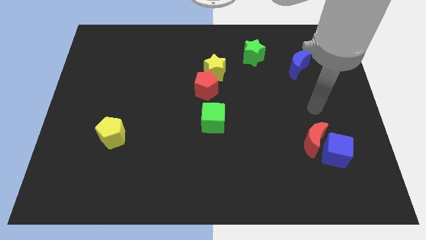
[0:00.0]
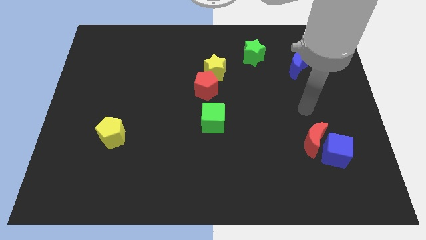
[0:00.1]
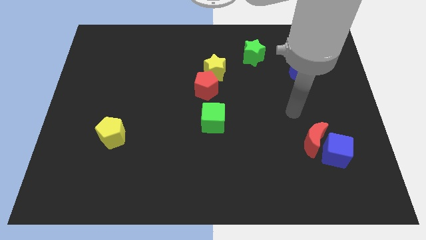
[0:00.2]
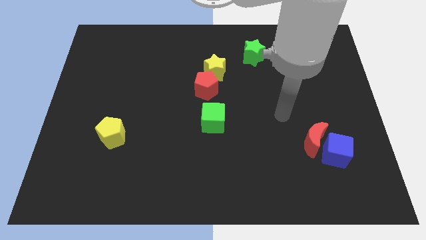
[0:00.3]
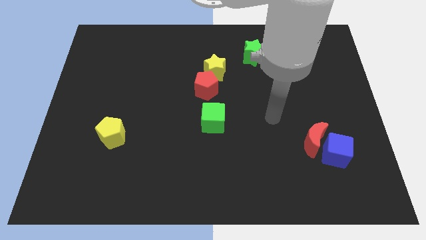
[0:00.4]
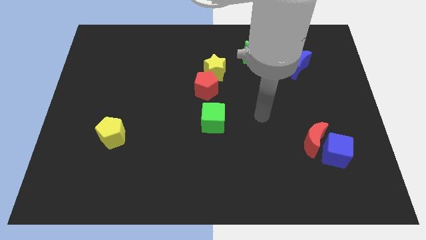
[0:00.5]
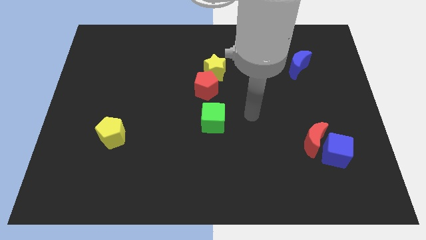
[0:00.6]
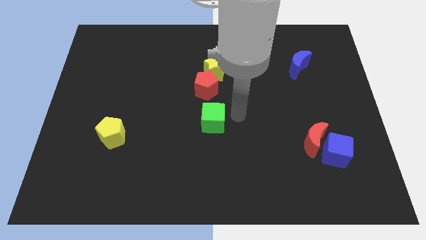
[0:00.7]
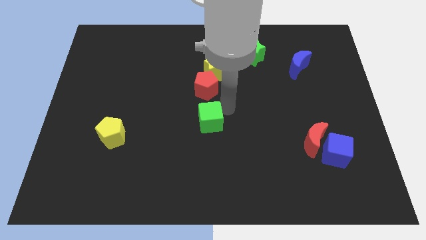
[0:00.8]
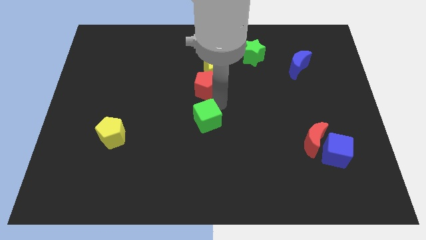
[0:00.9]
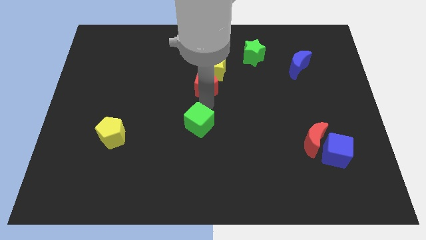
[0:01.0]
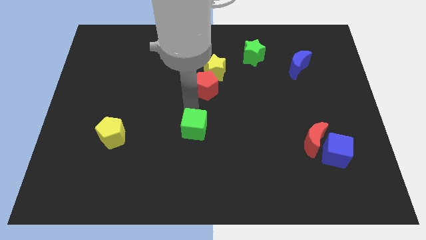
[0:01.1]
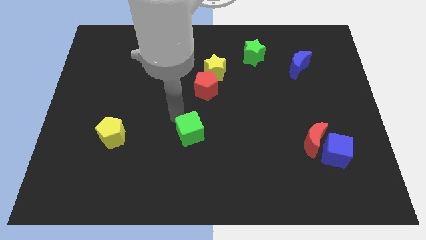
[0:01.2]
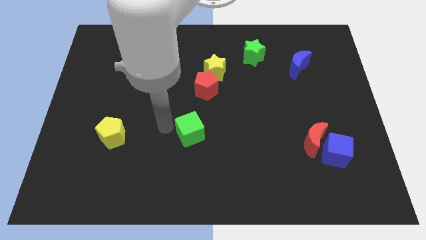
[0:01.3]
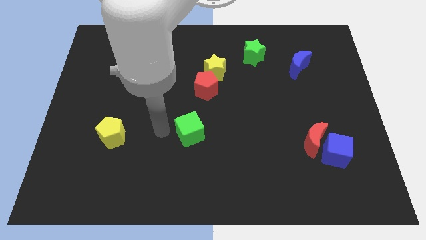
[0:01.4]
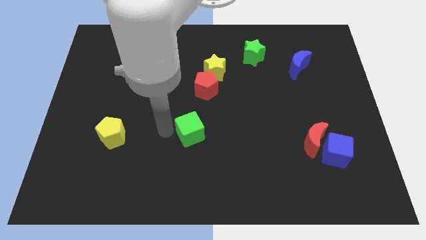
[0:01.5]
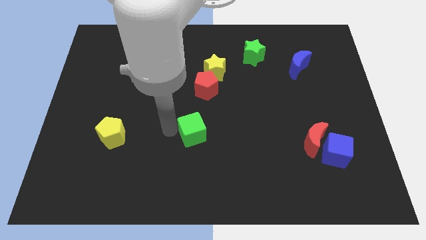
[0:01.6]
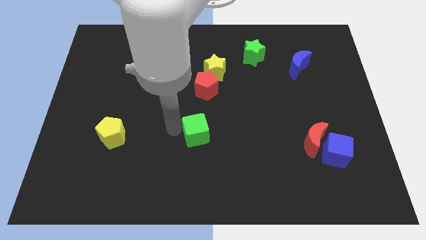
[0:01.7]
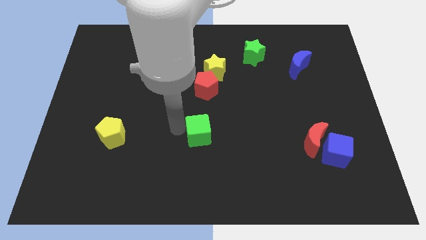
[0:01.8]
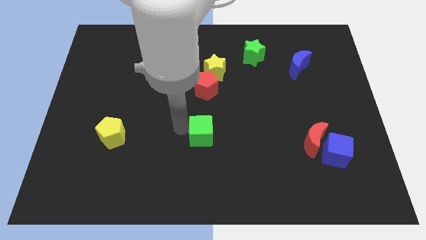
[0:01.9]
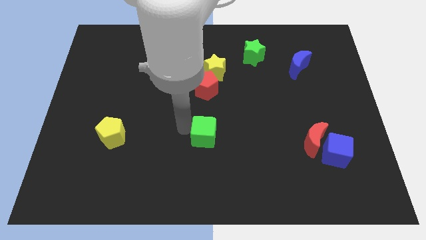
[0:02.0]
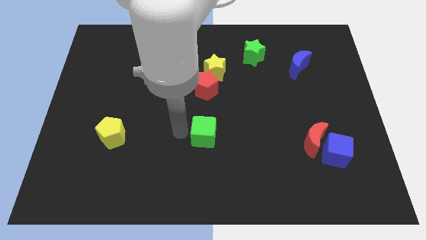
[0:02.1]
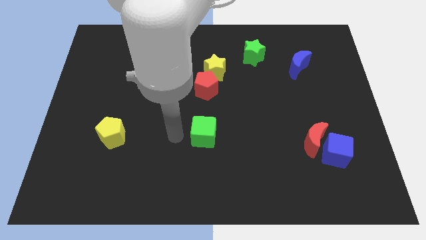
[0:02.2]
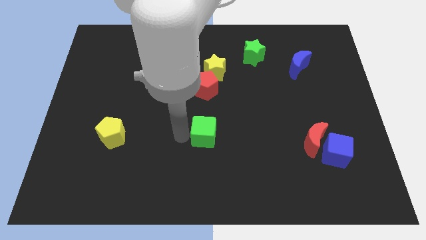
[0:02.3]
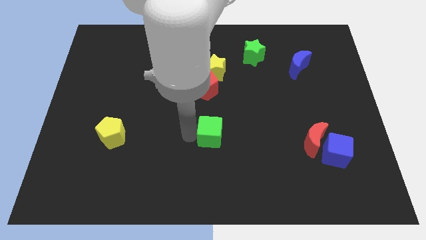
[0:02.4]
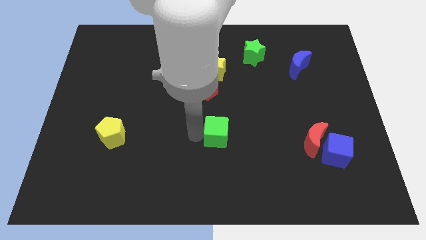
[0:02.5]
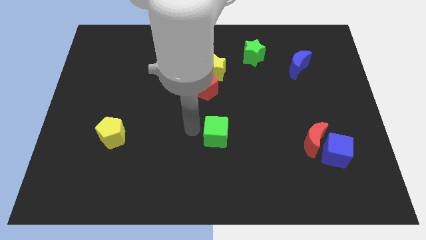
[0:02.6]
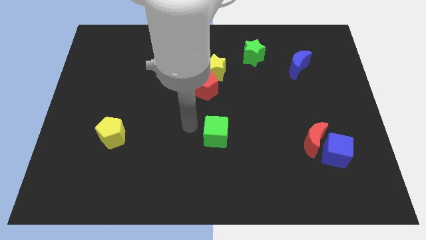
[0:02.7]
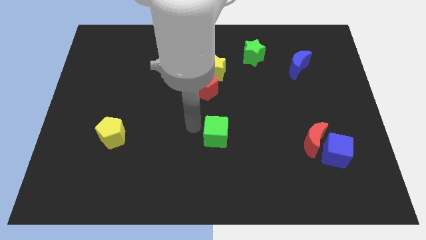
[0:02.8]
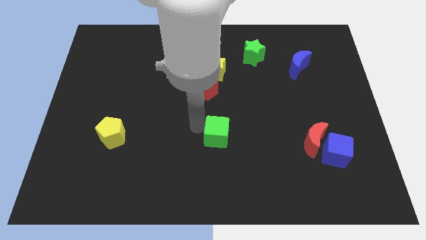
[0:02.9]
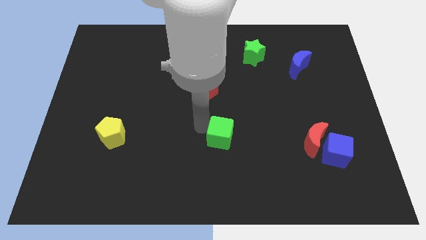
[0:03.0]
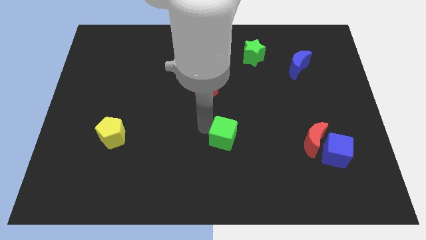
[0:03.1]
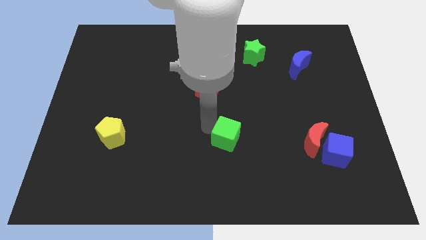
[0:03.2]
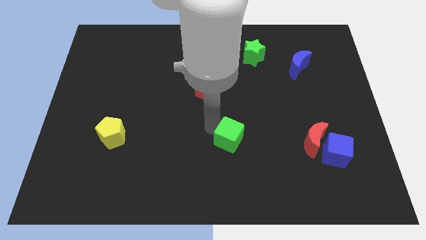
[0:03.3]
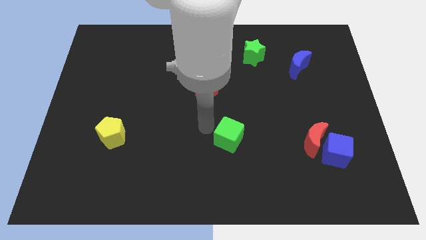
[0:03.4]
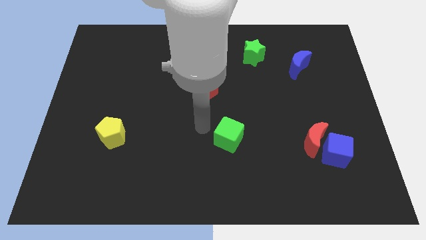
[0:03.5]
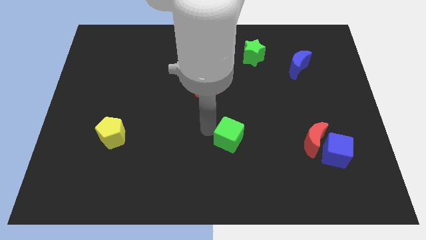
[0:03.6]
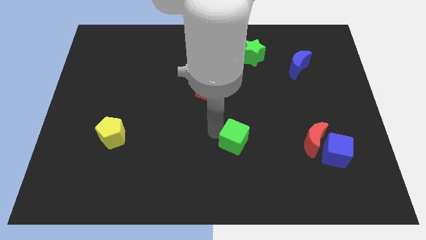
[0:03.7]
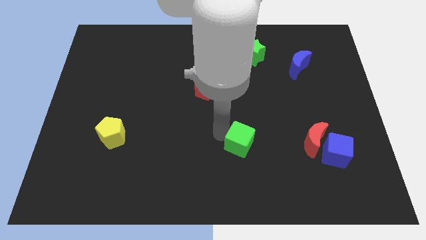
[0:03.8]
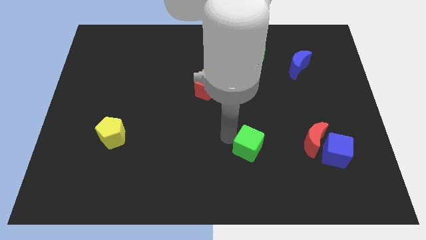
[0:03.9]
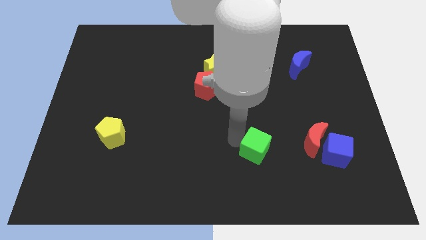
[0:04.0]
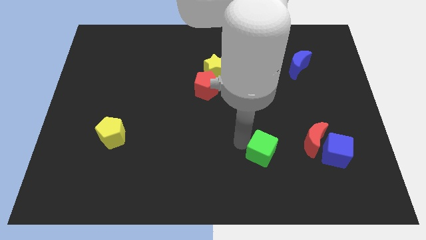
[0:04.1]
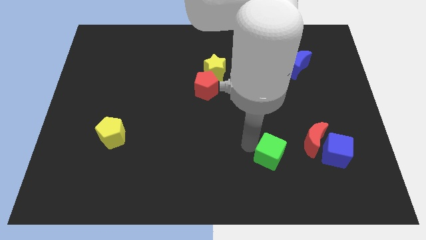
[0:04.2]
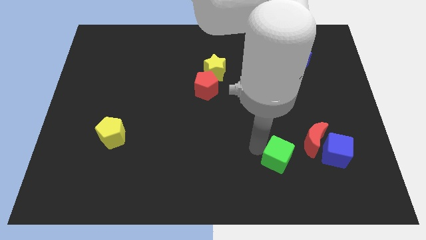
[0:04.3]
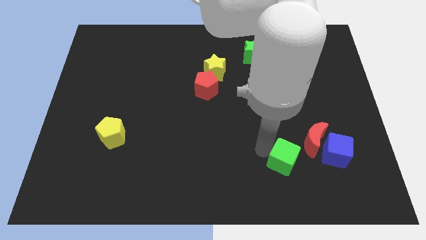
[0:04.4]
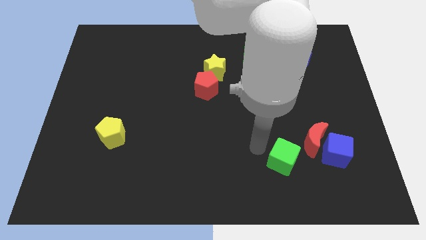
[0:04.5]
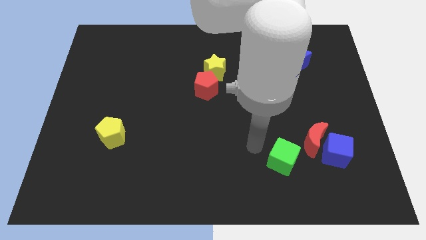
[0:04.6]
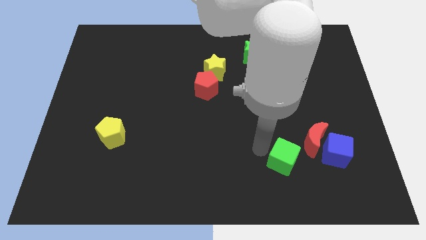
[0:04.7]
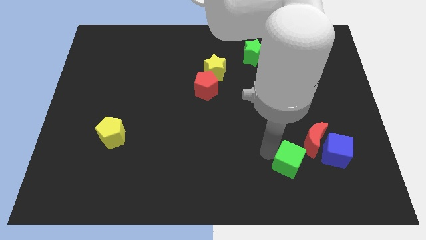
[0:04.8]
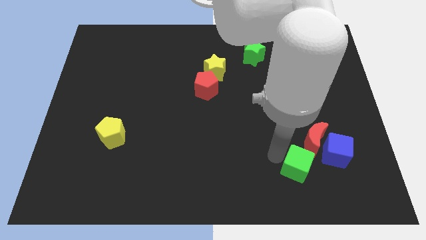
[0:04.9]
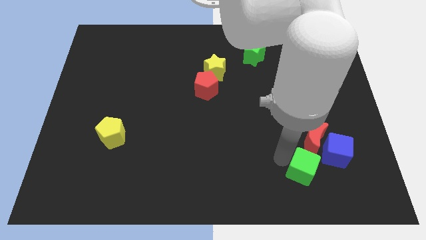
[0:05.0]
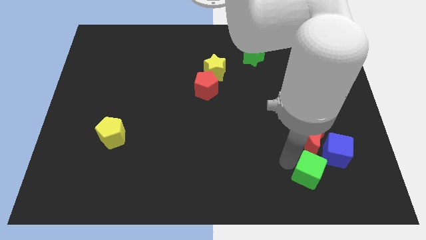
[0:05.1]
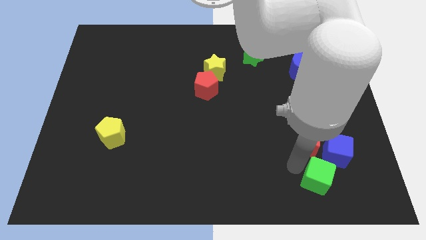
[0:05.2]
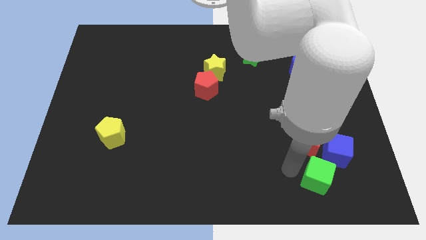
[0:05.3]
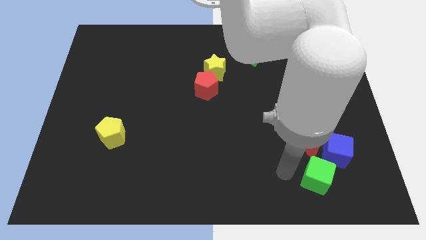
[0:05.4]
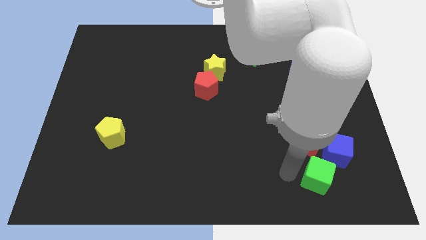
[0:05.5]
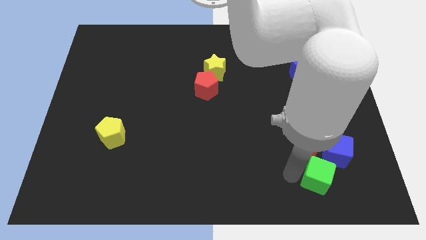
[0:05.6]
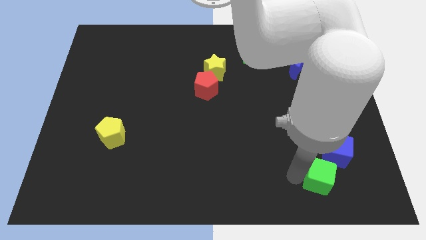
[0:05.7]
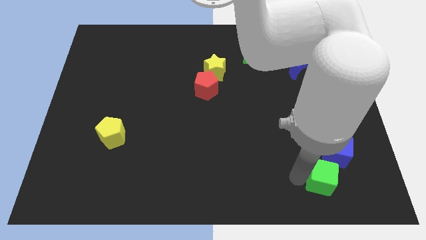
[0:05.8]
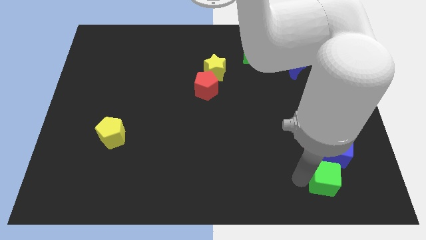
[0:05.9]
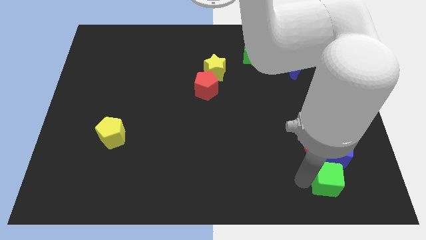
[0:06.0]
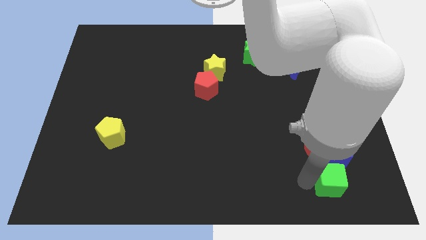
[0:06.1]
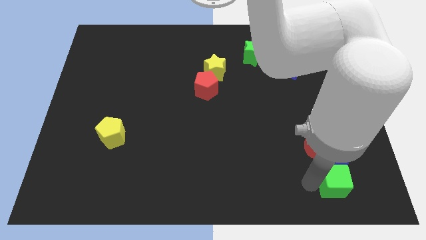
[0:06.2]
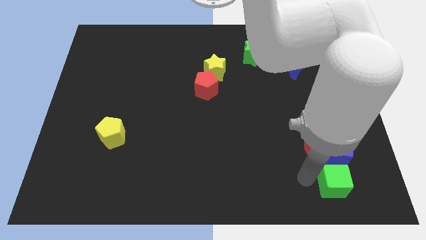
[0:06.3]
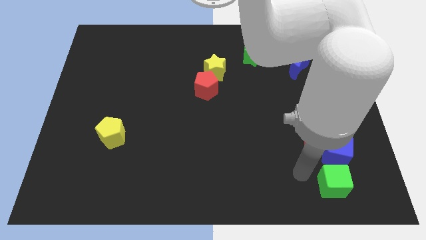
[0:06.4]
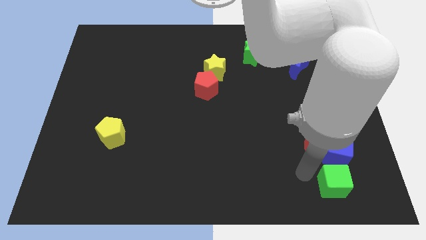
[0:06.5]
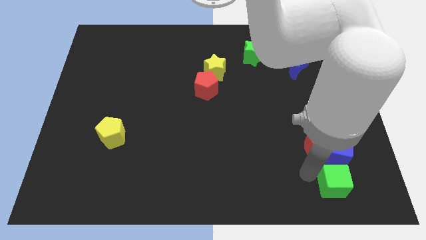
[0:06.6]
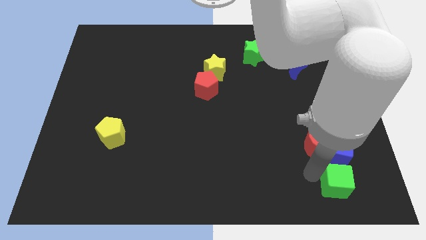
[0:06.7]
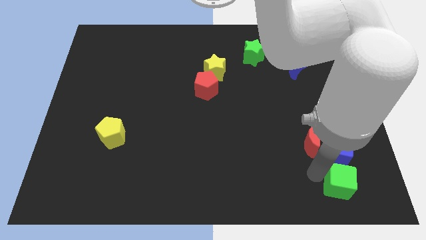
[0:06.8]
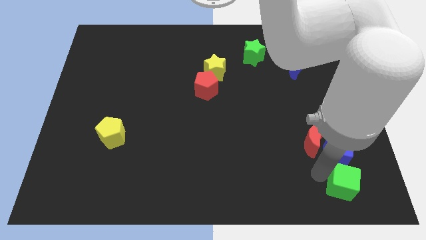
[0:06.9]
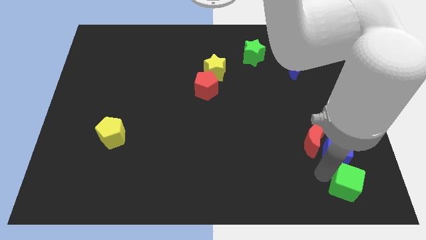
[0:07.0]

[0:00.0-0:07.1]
push the green cube to the bottom right
